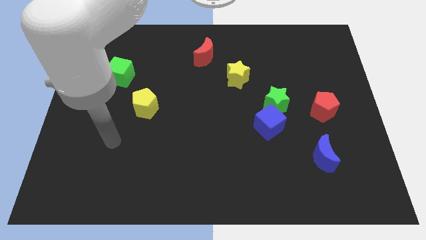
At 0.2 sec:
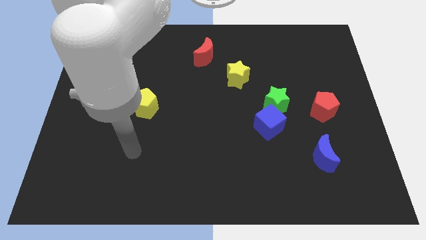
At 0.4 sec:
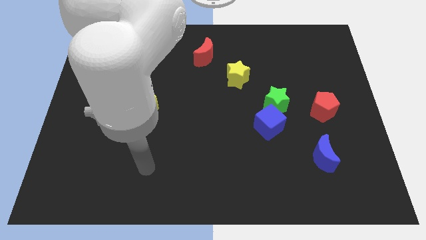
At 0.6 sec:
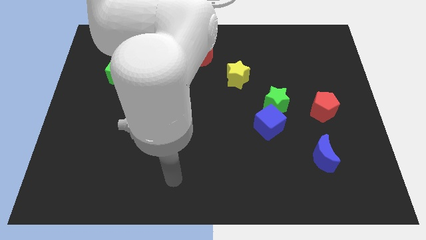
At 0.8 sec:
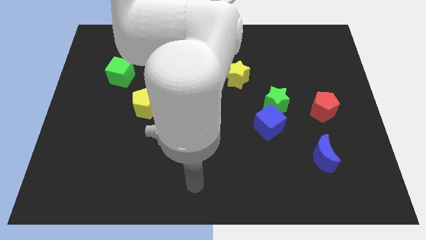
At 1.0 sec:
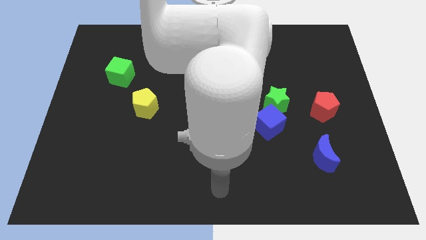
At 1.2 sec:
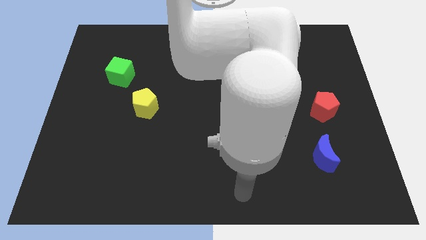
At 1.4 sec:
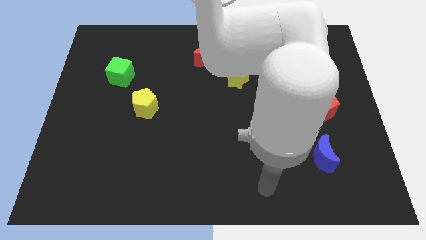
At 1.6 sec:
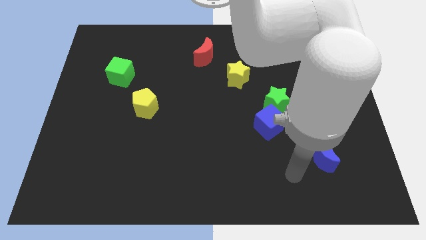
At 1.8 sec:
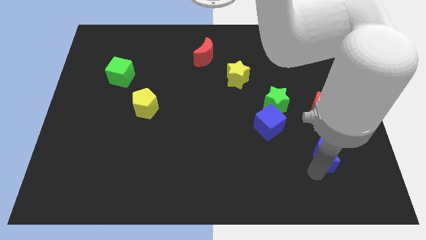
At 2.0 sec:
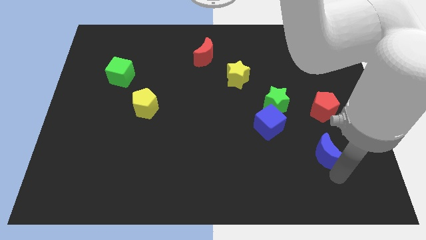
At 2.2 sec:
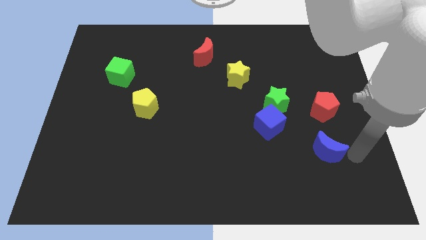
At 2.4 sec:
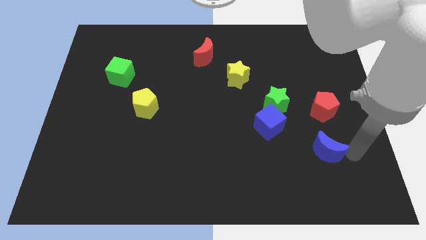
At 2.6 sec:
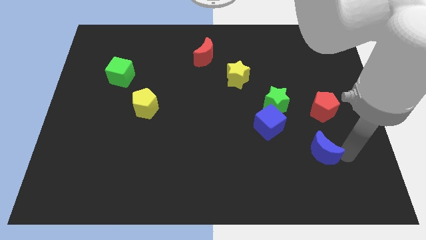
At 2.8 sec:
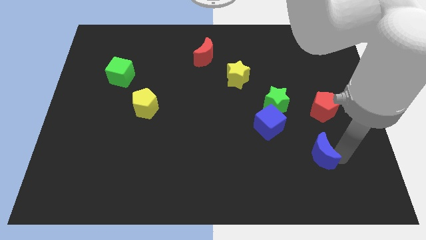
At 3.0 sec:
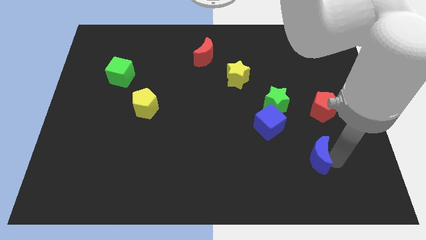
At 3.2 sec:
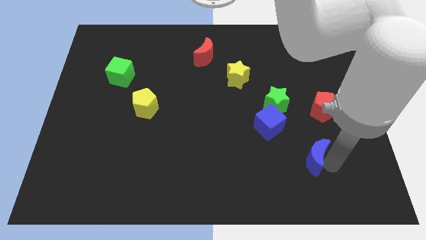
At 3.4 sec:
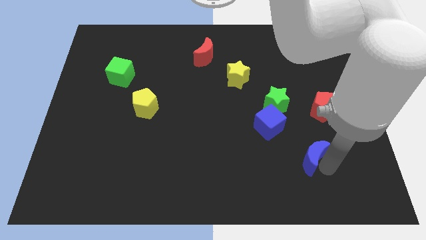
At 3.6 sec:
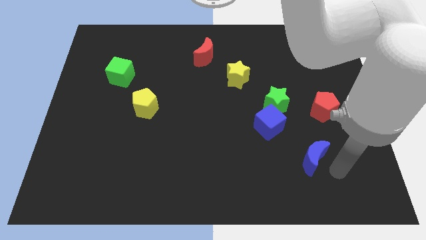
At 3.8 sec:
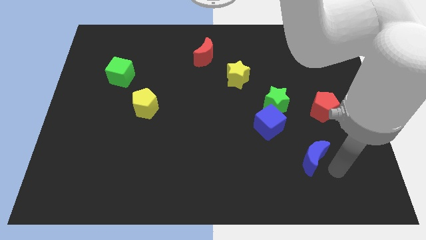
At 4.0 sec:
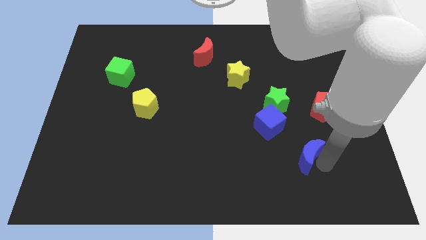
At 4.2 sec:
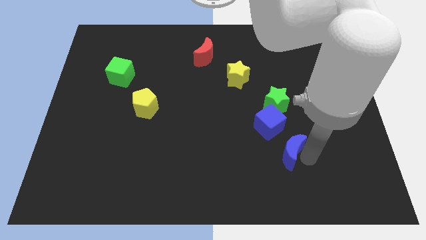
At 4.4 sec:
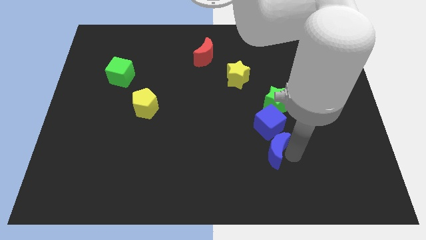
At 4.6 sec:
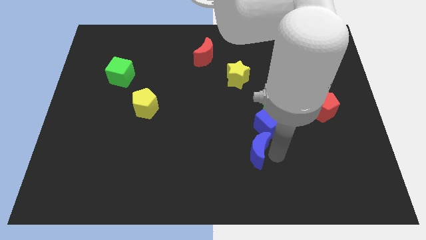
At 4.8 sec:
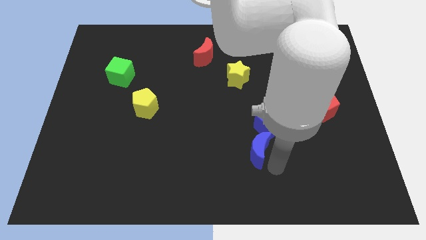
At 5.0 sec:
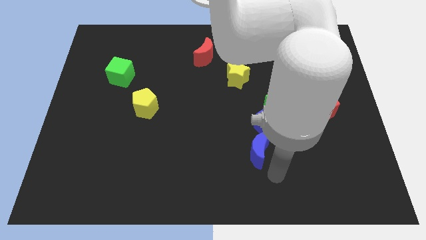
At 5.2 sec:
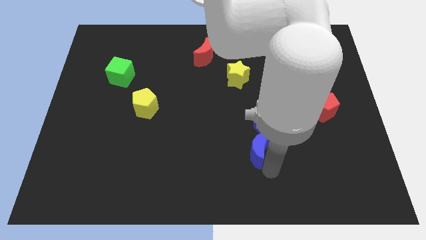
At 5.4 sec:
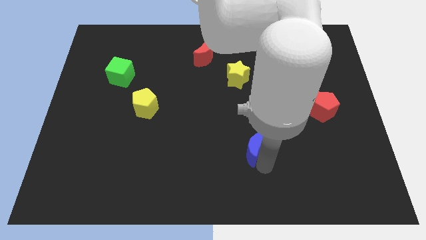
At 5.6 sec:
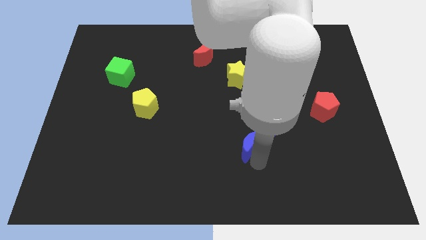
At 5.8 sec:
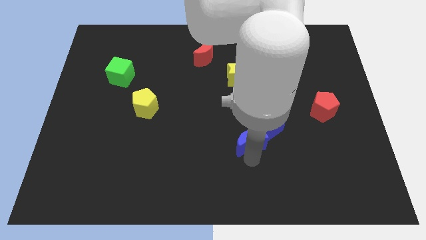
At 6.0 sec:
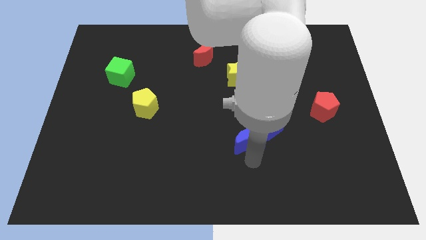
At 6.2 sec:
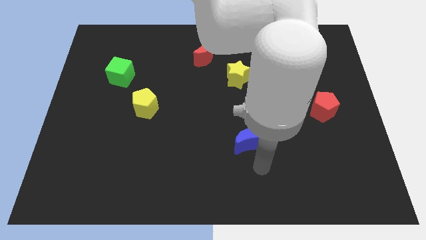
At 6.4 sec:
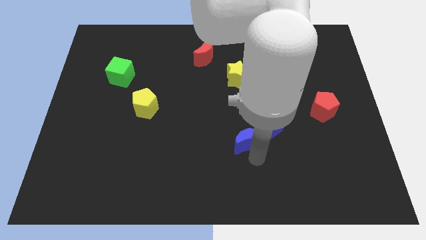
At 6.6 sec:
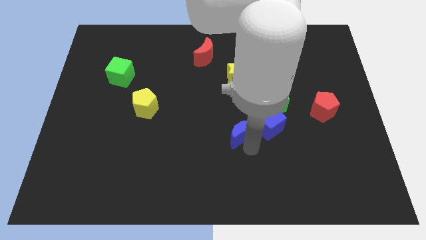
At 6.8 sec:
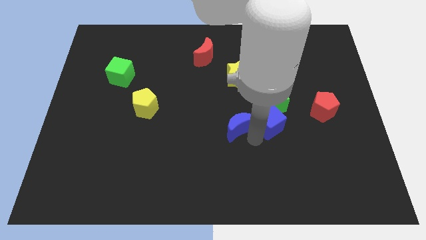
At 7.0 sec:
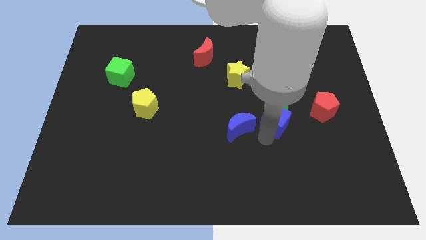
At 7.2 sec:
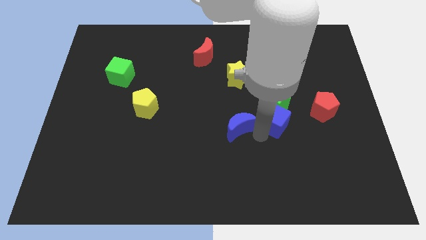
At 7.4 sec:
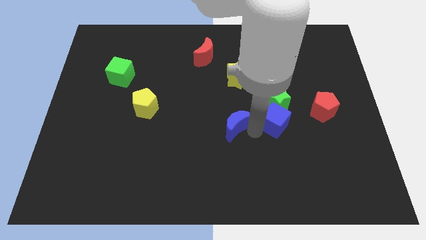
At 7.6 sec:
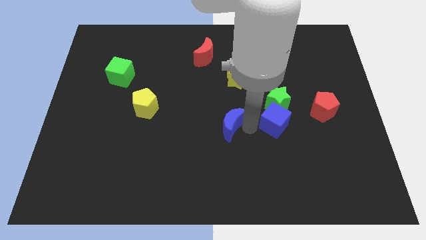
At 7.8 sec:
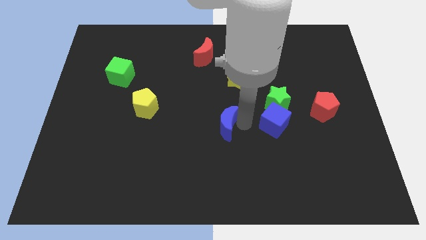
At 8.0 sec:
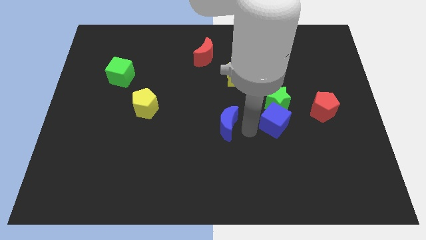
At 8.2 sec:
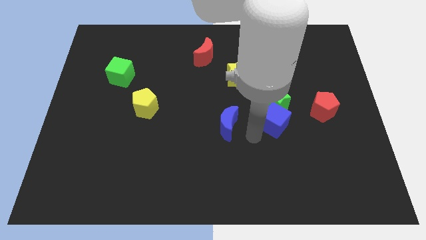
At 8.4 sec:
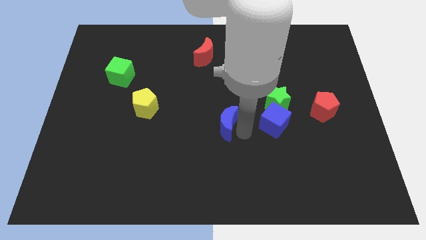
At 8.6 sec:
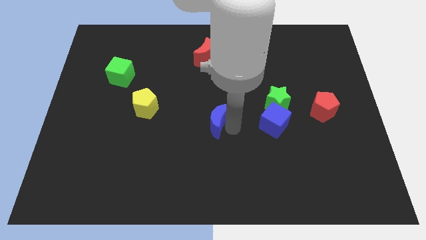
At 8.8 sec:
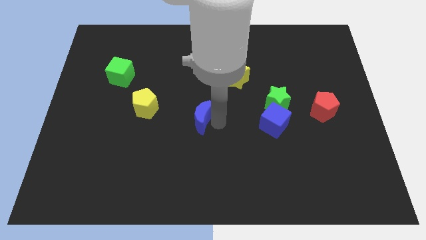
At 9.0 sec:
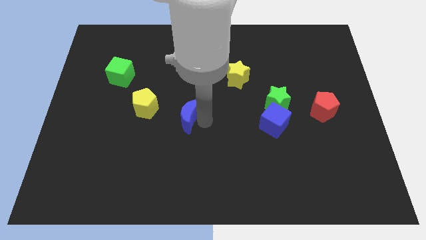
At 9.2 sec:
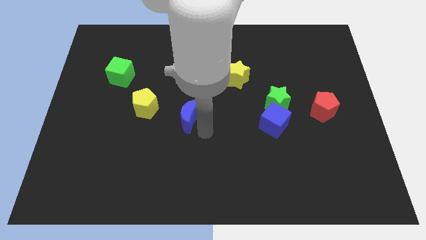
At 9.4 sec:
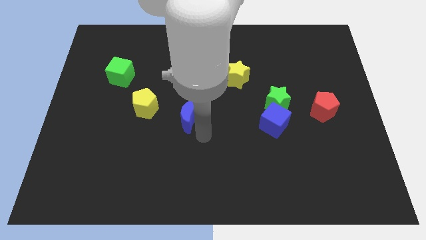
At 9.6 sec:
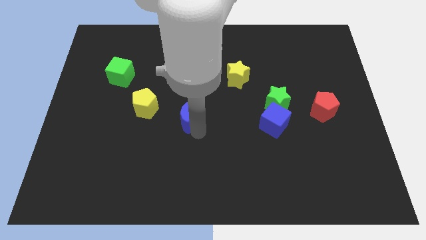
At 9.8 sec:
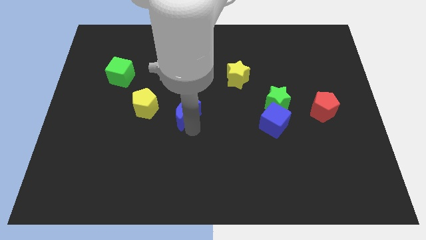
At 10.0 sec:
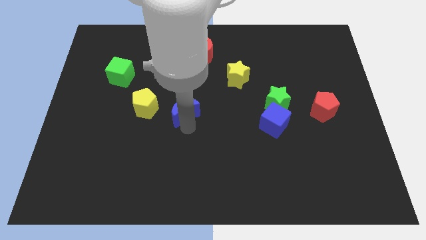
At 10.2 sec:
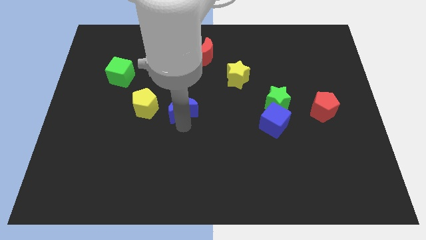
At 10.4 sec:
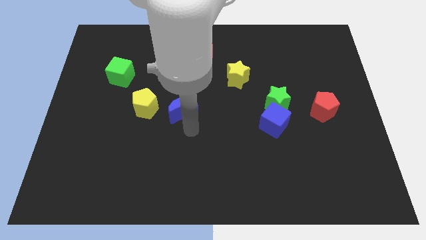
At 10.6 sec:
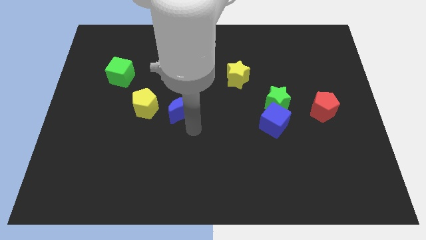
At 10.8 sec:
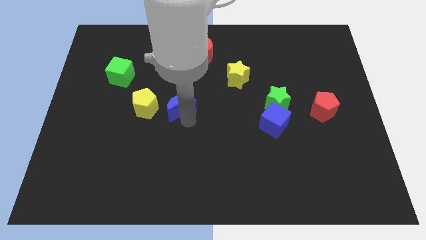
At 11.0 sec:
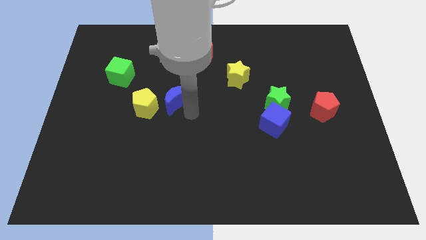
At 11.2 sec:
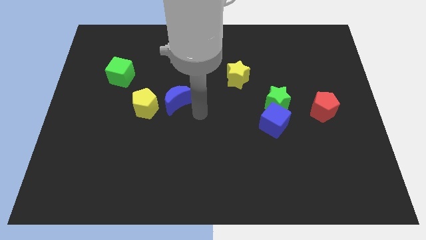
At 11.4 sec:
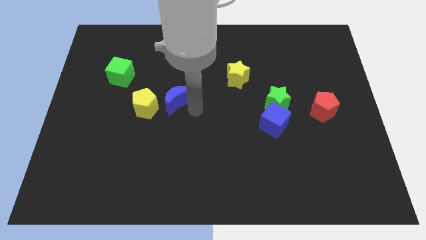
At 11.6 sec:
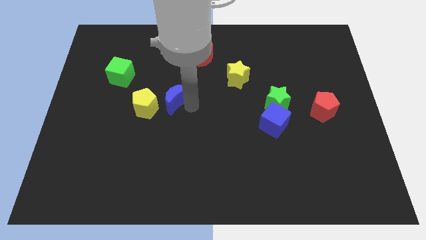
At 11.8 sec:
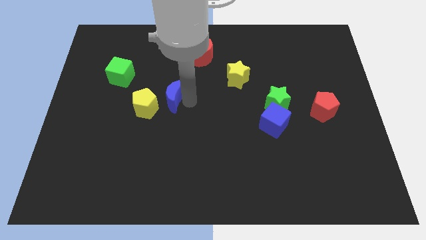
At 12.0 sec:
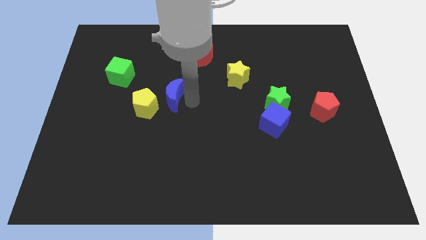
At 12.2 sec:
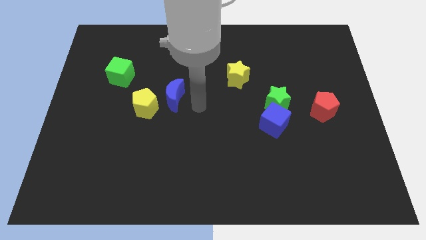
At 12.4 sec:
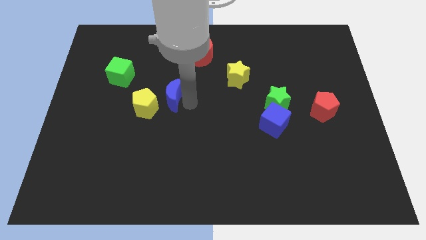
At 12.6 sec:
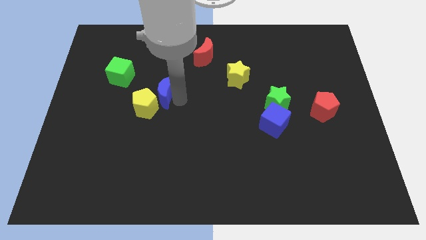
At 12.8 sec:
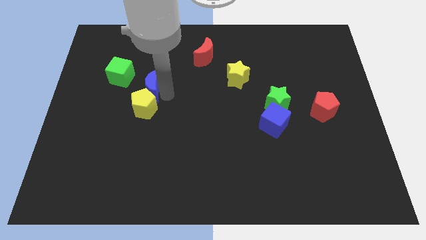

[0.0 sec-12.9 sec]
push the blue moon to the top left of the yellow pentagon
